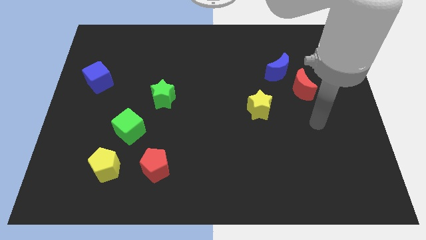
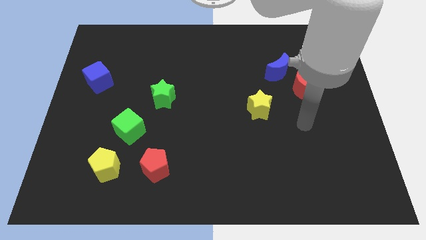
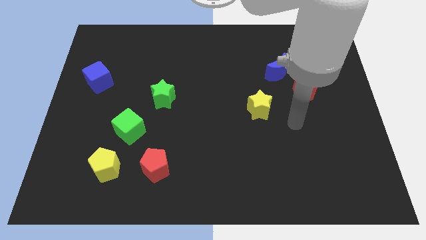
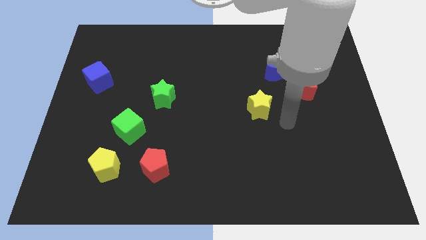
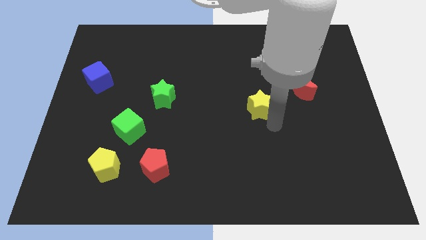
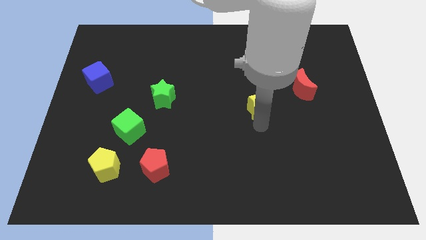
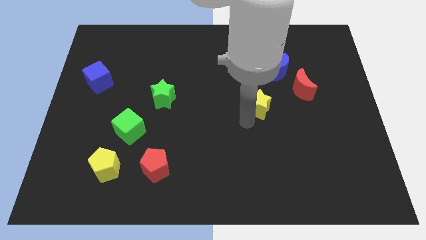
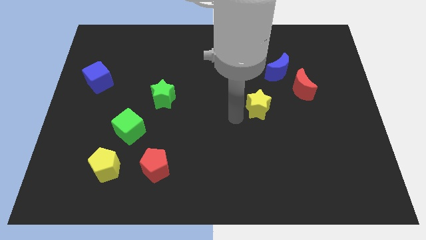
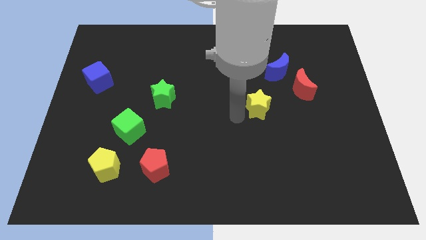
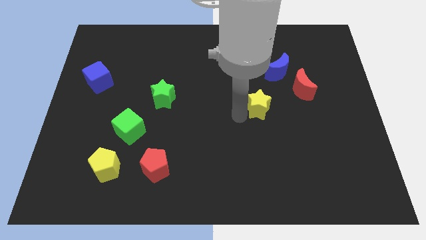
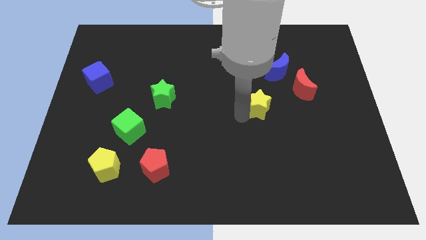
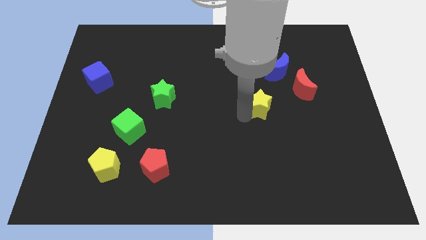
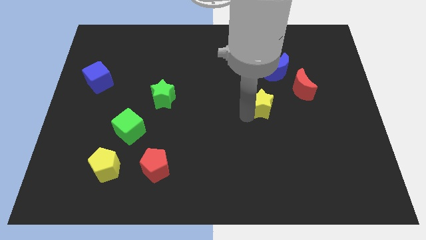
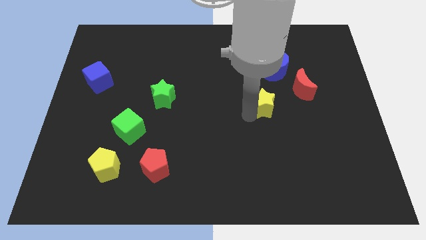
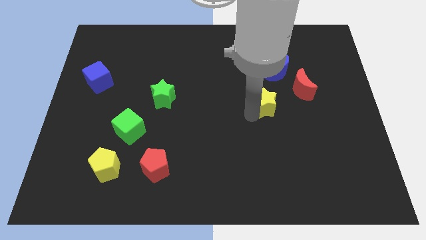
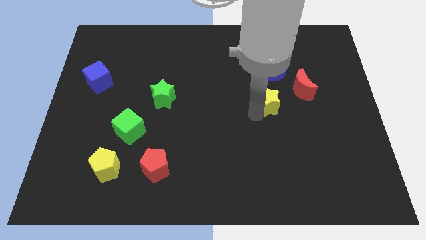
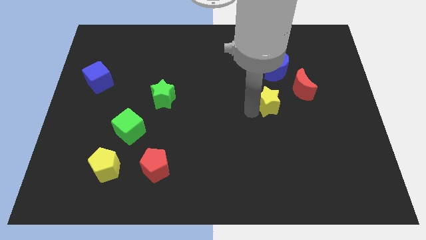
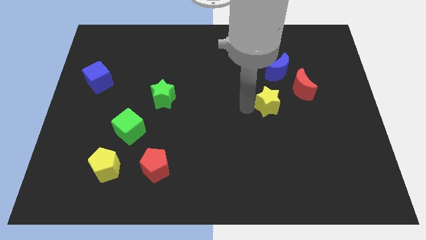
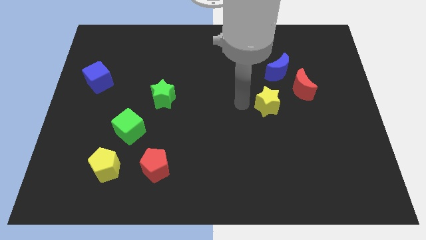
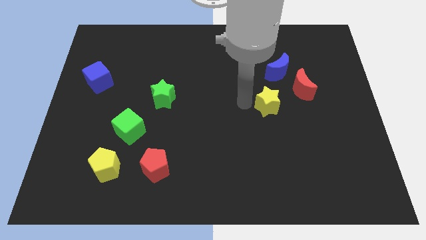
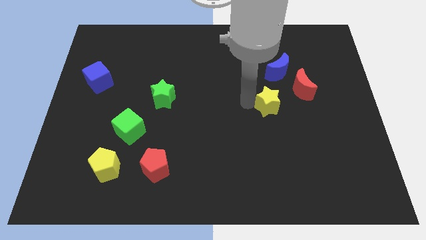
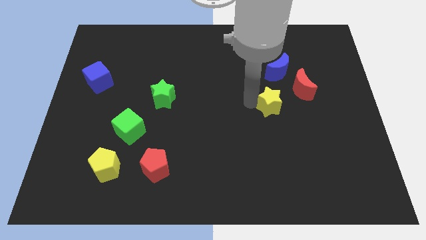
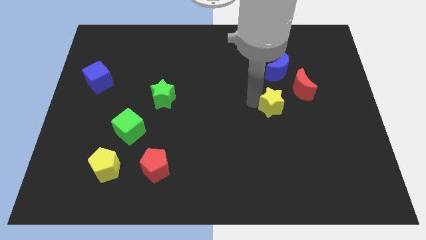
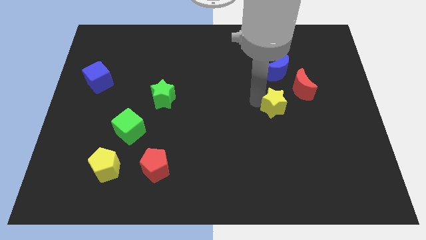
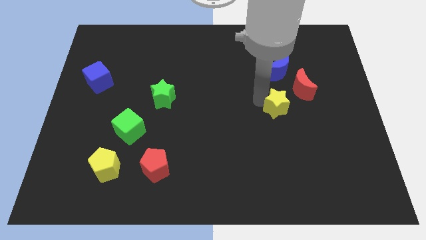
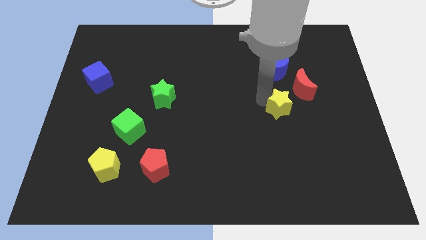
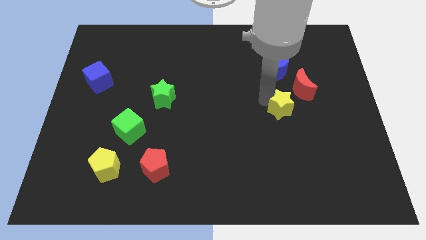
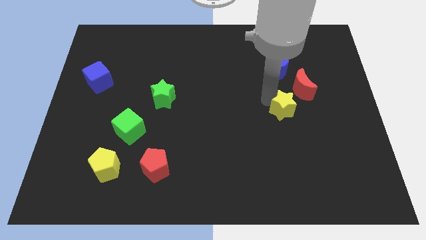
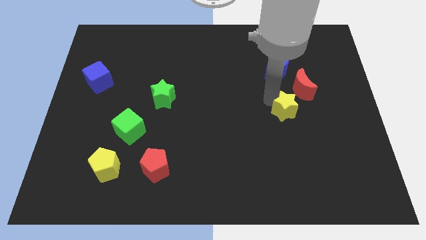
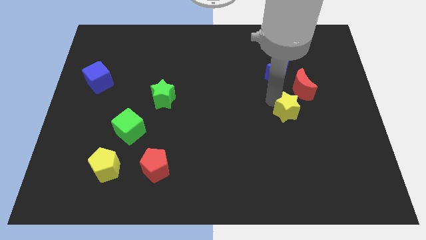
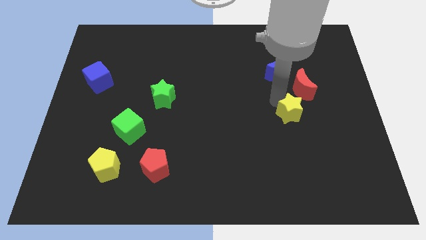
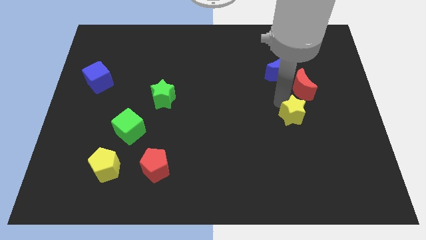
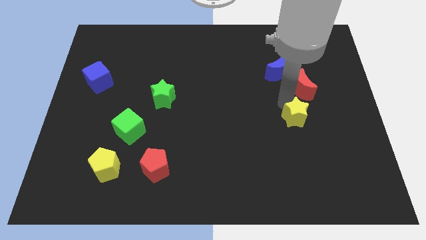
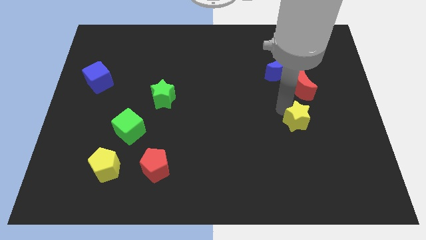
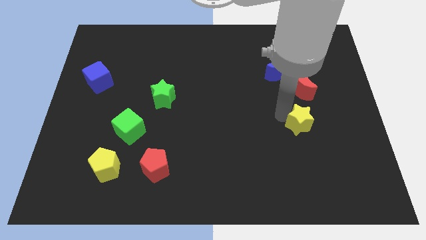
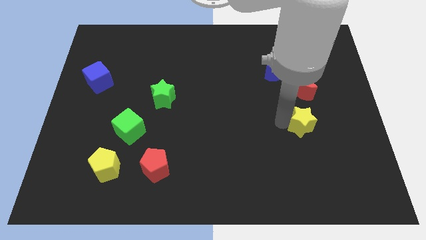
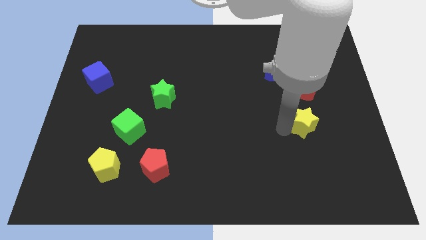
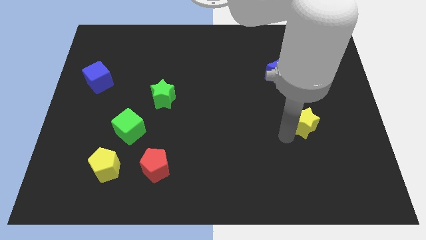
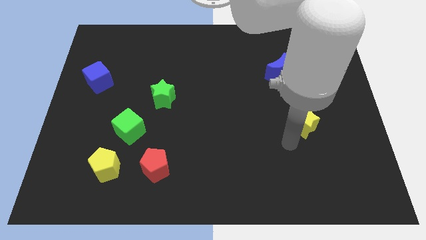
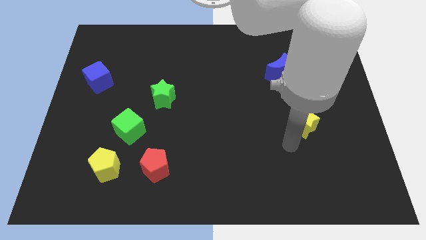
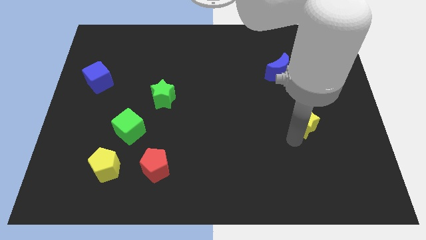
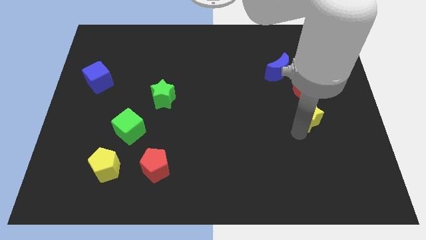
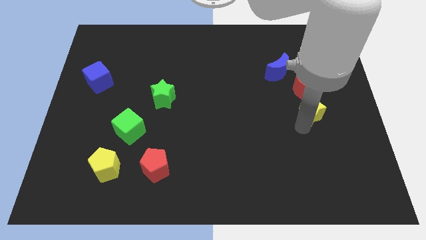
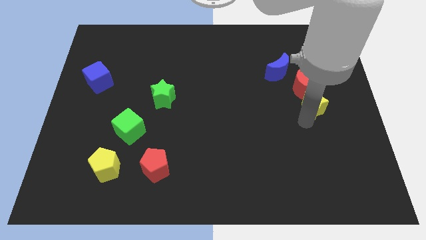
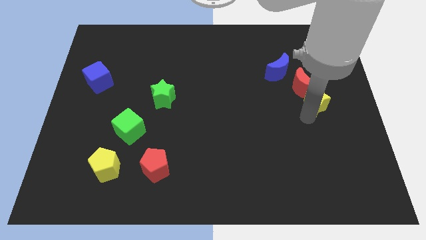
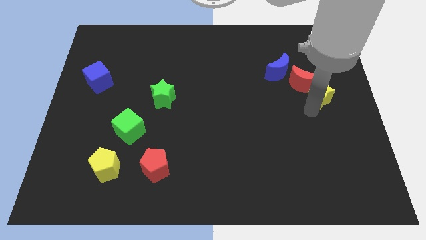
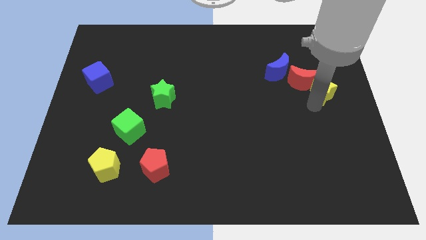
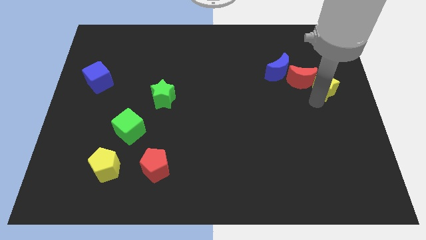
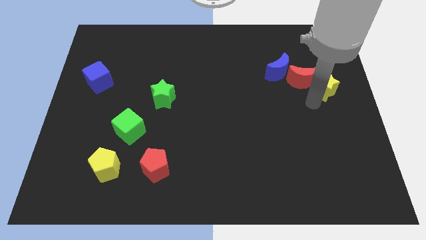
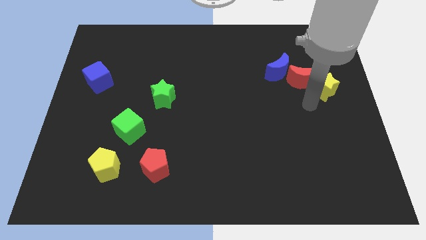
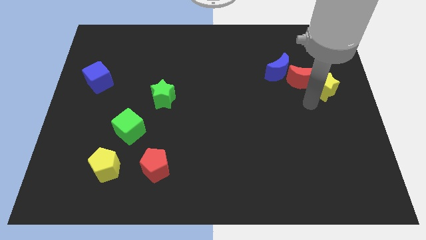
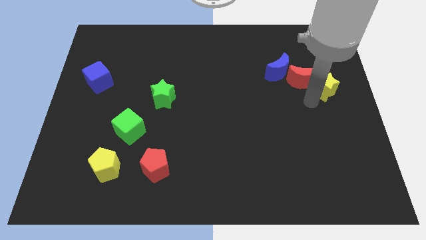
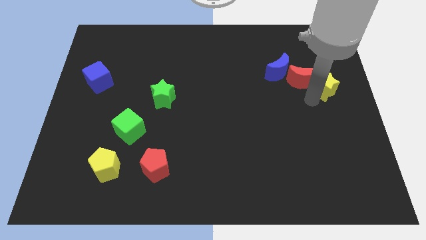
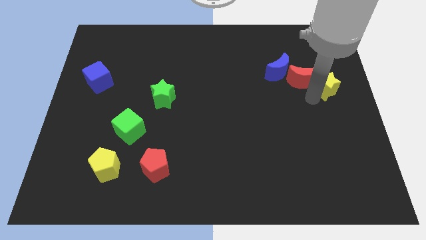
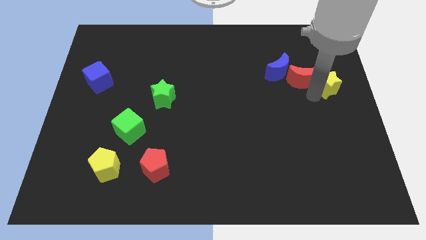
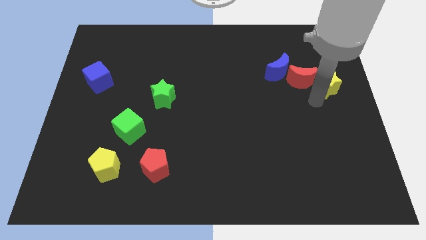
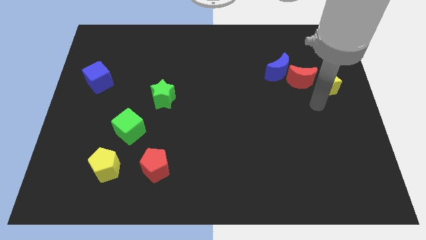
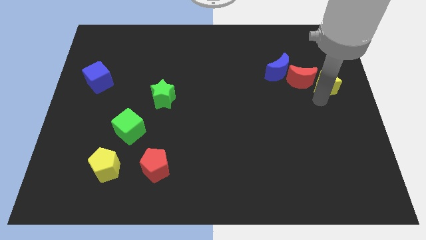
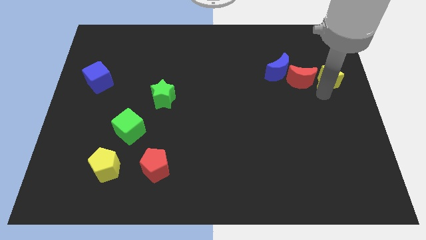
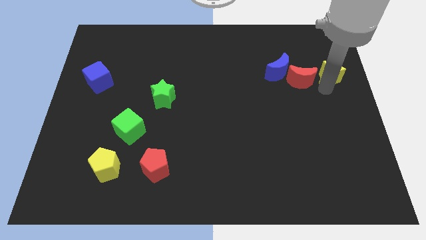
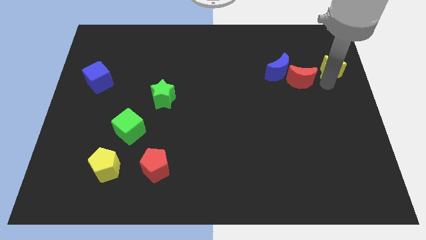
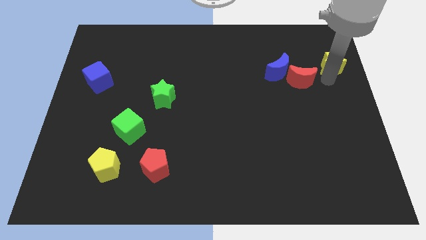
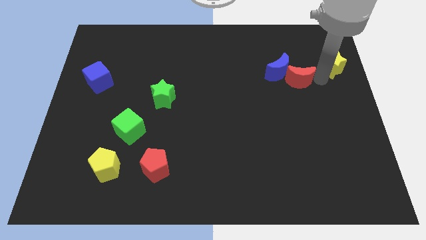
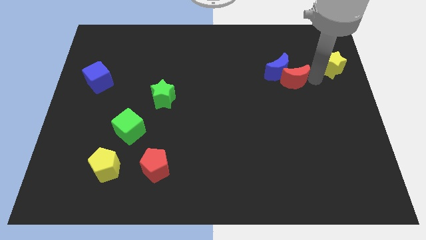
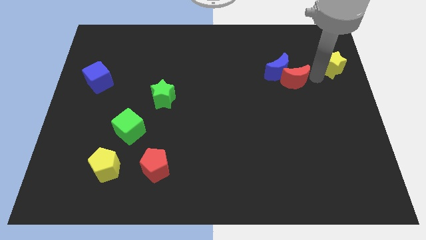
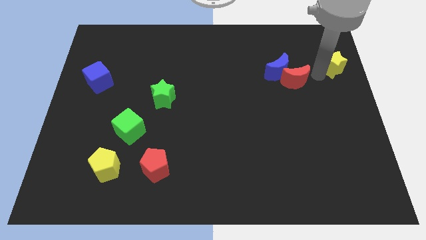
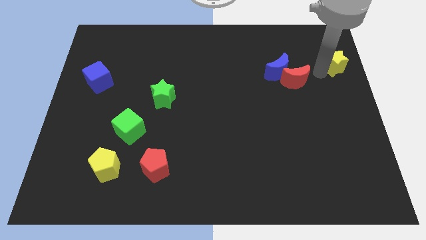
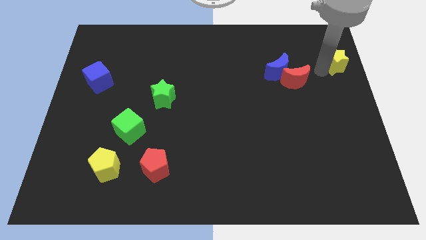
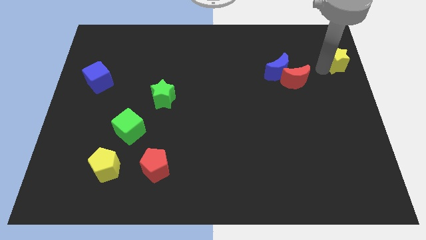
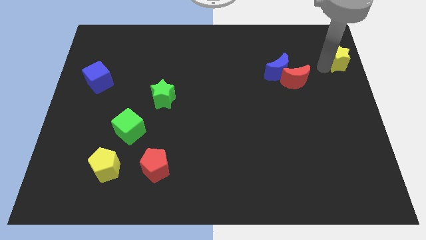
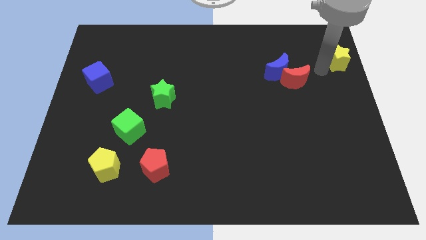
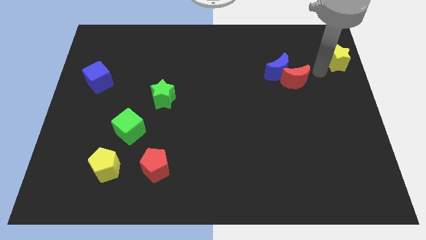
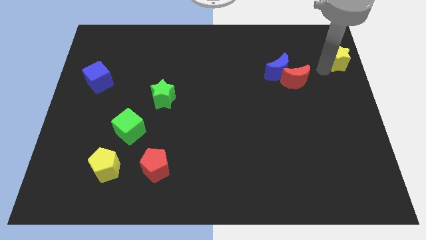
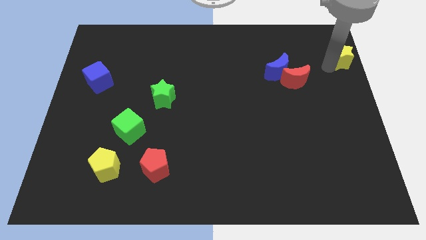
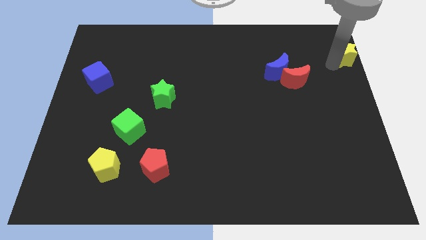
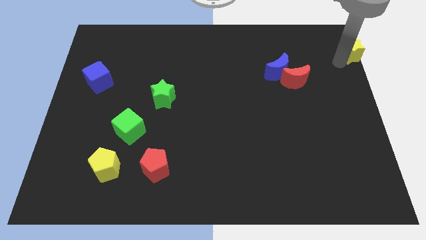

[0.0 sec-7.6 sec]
move the yellow star to the top right corner
